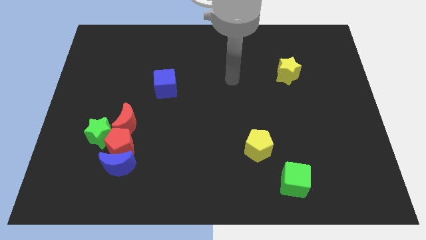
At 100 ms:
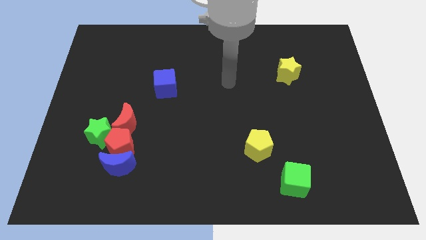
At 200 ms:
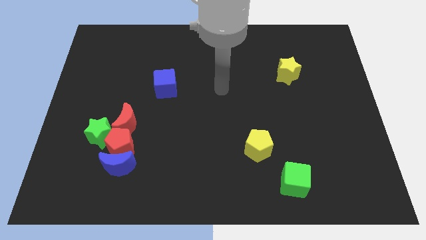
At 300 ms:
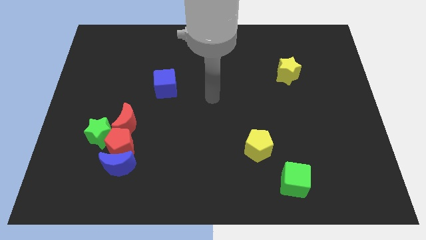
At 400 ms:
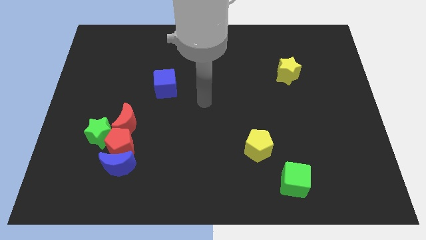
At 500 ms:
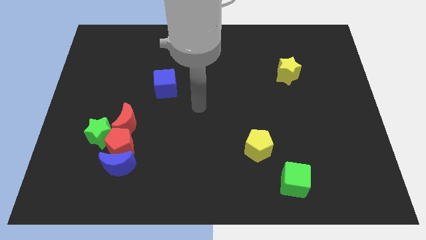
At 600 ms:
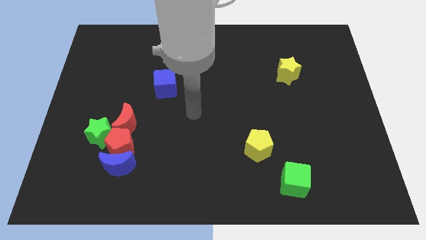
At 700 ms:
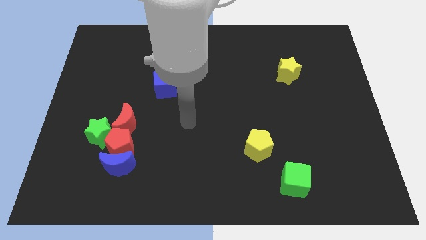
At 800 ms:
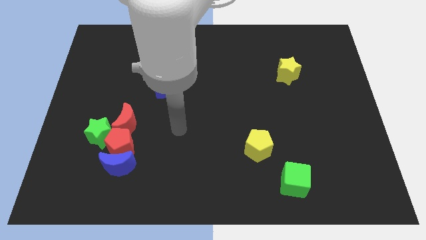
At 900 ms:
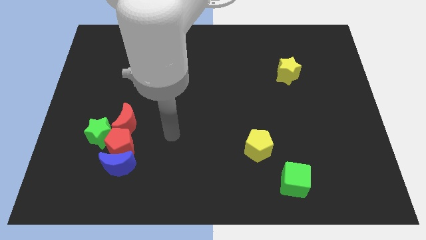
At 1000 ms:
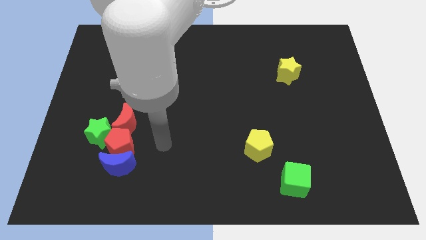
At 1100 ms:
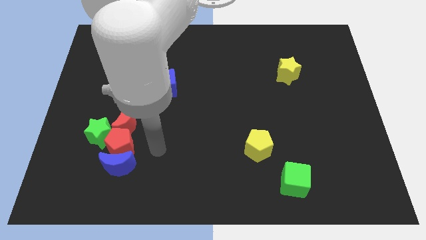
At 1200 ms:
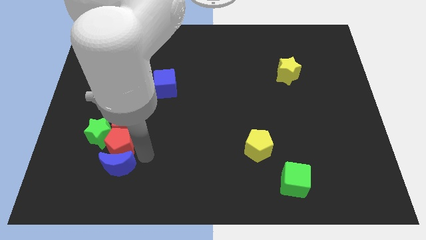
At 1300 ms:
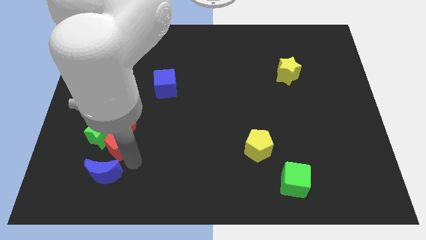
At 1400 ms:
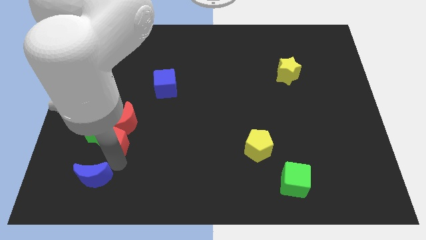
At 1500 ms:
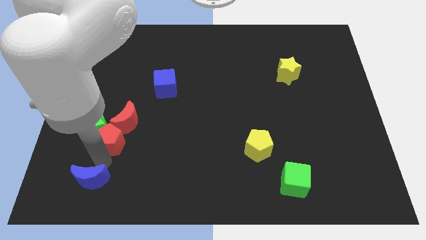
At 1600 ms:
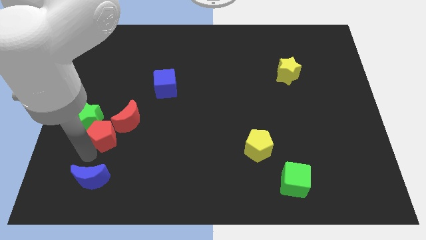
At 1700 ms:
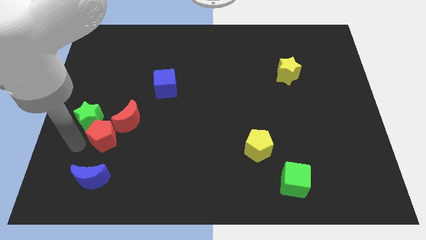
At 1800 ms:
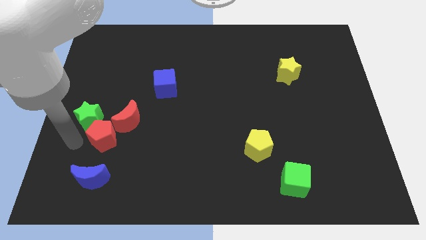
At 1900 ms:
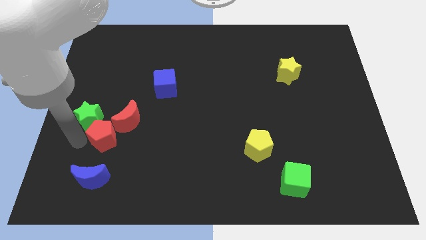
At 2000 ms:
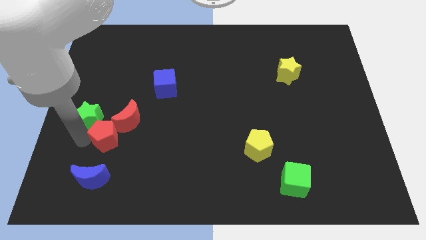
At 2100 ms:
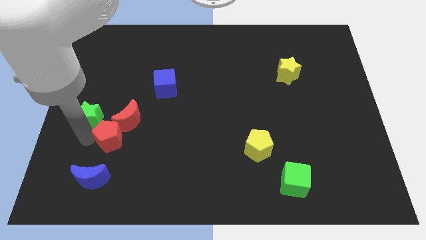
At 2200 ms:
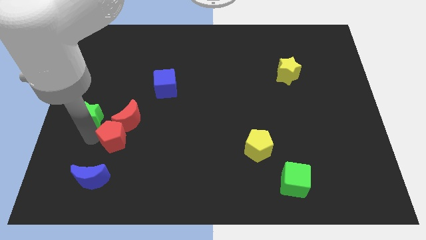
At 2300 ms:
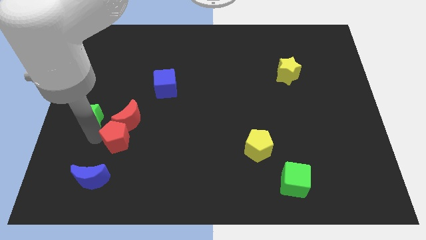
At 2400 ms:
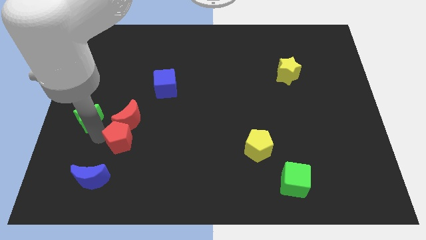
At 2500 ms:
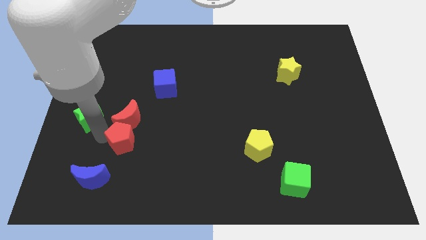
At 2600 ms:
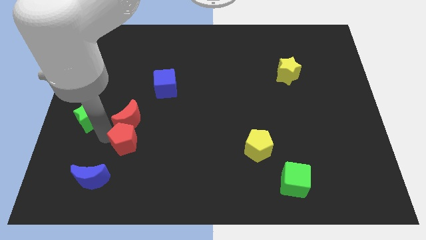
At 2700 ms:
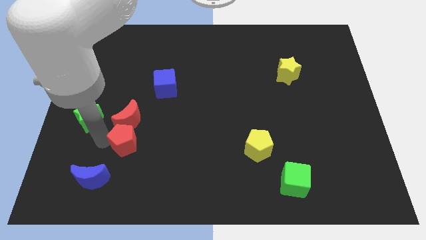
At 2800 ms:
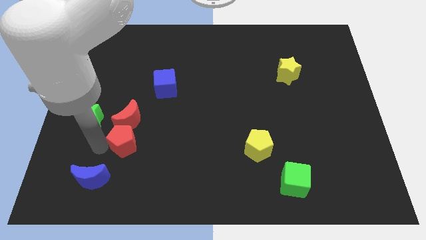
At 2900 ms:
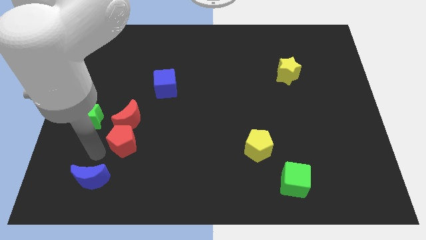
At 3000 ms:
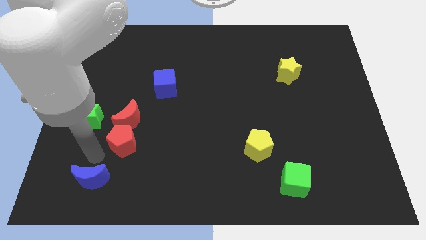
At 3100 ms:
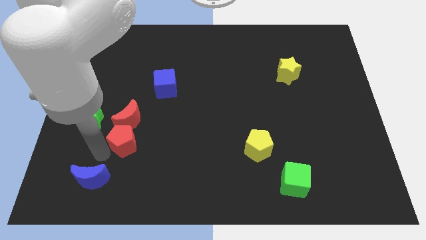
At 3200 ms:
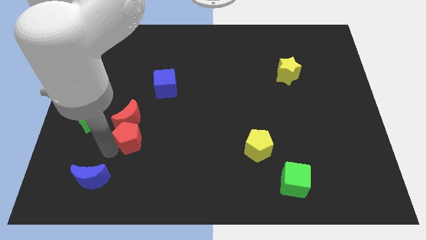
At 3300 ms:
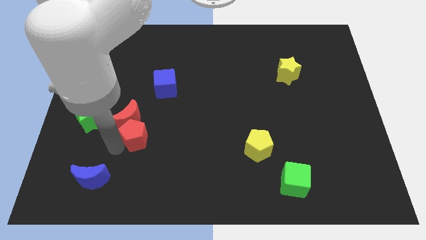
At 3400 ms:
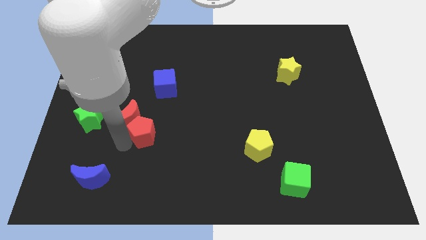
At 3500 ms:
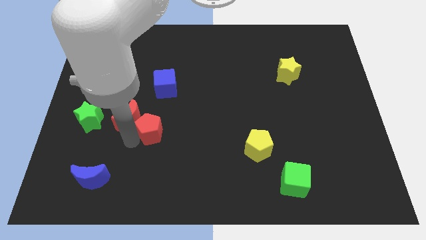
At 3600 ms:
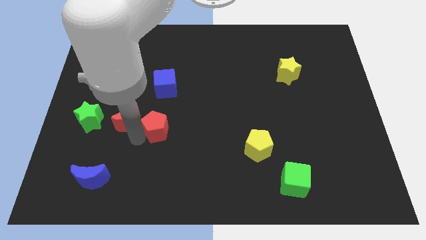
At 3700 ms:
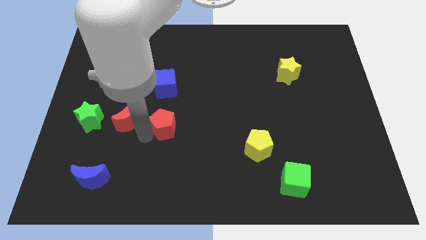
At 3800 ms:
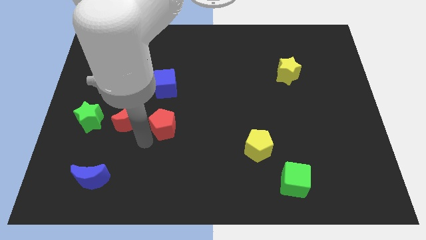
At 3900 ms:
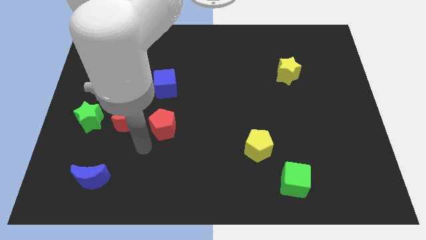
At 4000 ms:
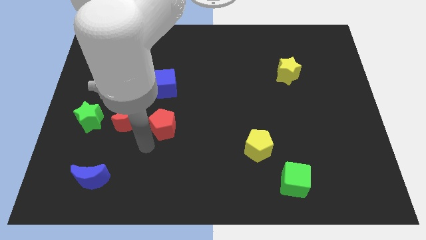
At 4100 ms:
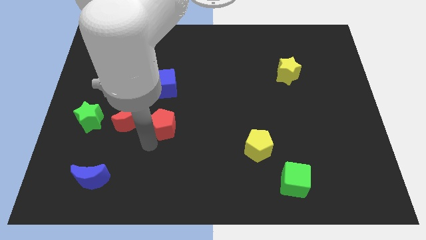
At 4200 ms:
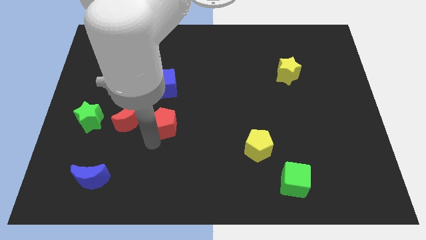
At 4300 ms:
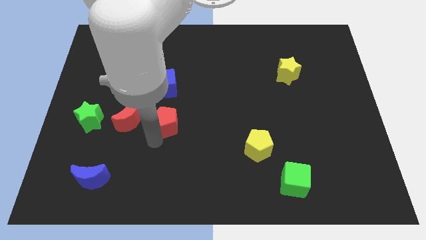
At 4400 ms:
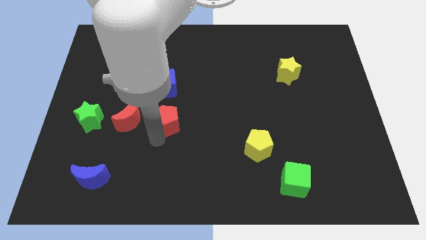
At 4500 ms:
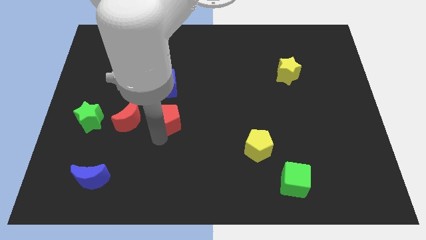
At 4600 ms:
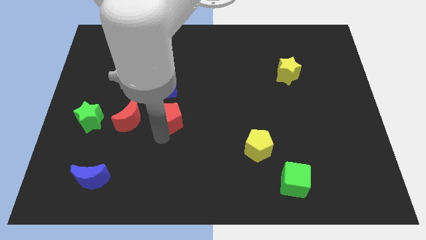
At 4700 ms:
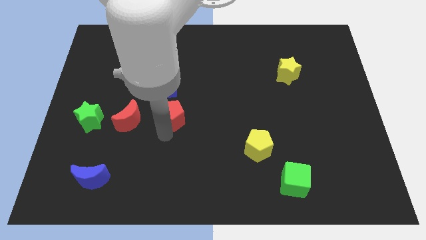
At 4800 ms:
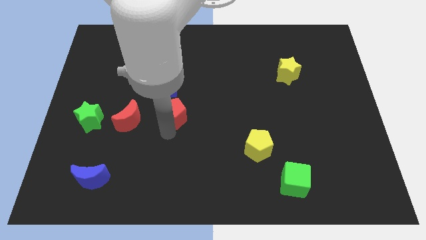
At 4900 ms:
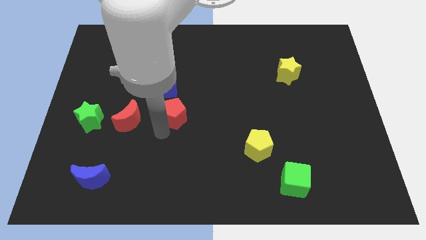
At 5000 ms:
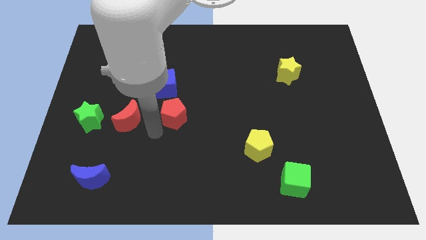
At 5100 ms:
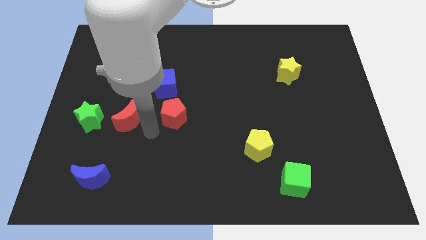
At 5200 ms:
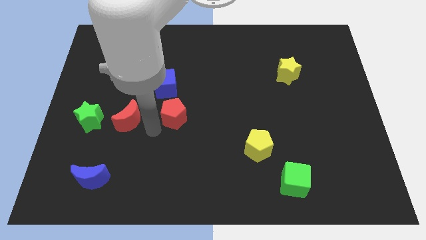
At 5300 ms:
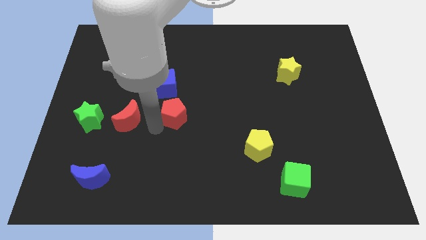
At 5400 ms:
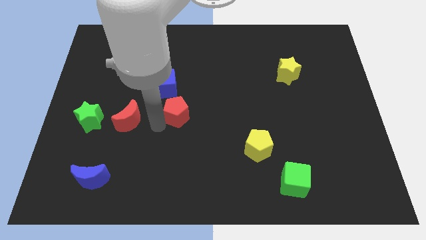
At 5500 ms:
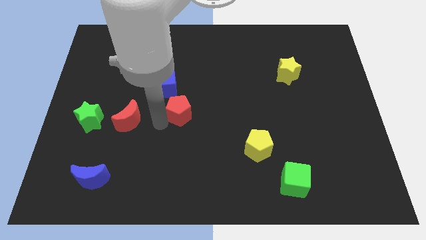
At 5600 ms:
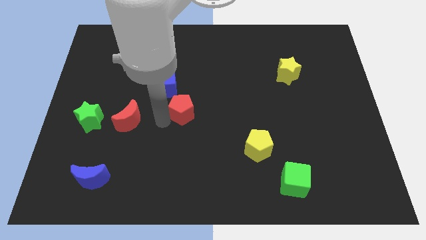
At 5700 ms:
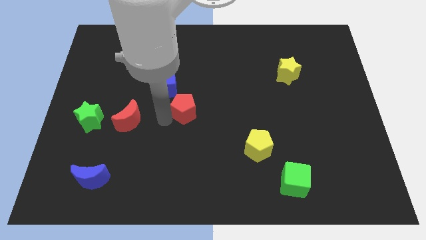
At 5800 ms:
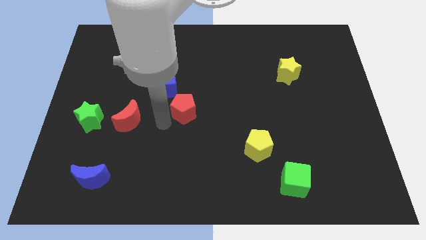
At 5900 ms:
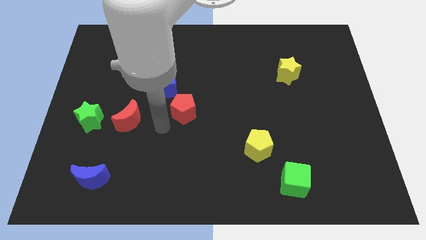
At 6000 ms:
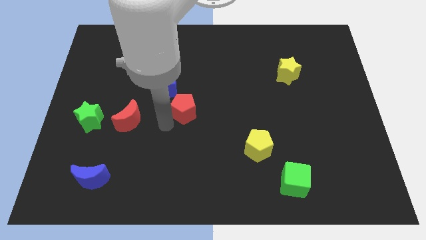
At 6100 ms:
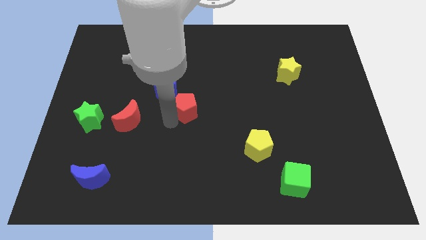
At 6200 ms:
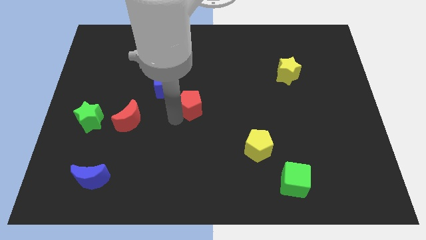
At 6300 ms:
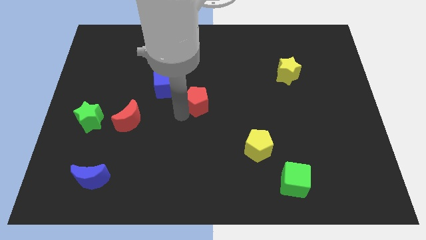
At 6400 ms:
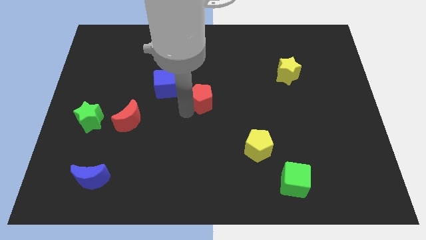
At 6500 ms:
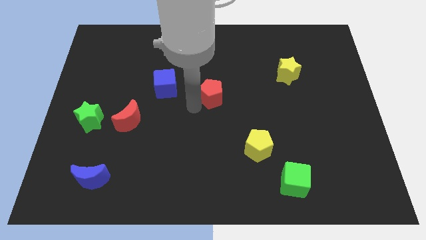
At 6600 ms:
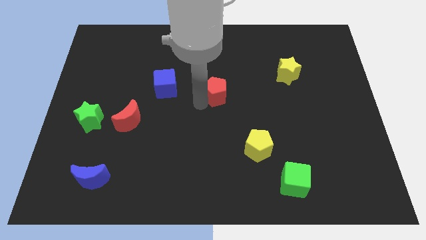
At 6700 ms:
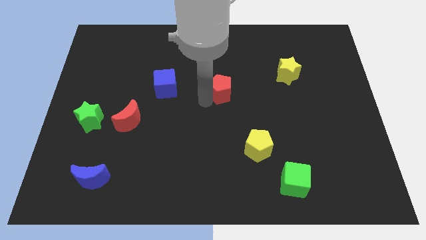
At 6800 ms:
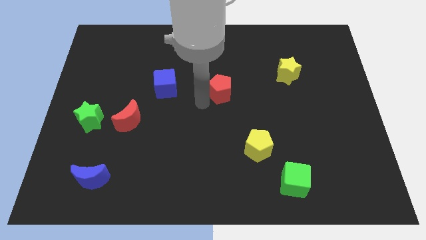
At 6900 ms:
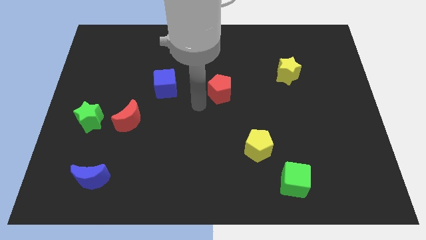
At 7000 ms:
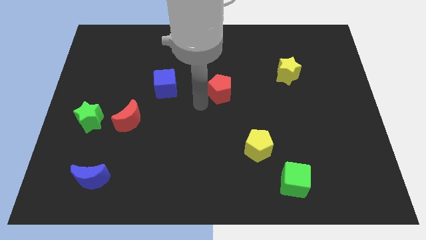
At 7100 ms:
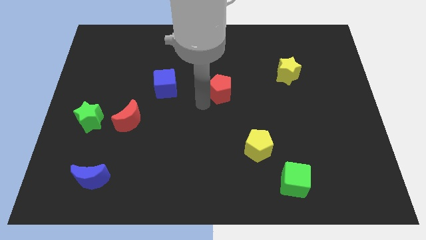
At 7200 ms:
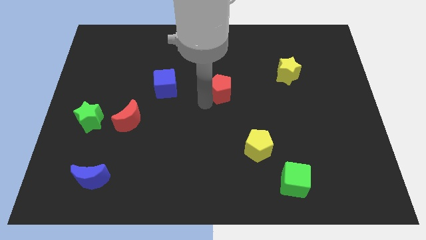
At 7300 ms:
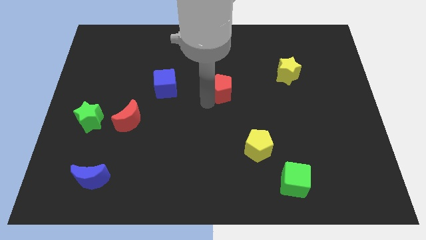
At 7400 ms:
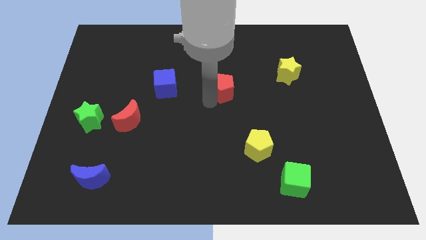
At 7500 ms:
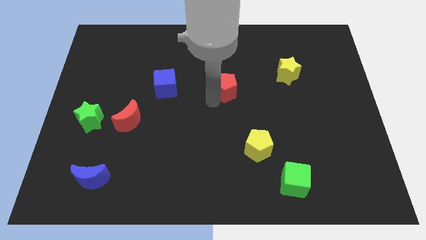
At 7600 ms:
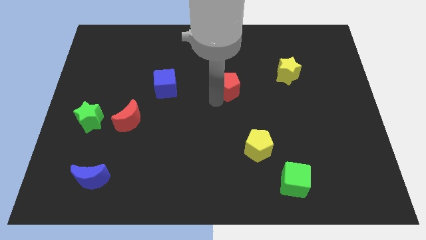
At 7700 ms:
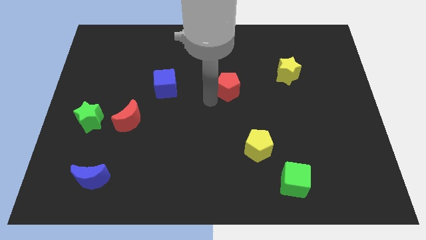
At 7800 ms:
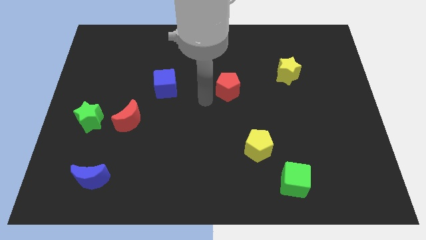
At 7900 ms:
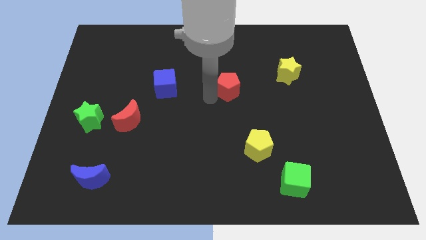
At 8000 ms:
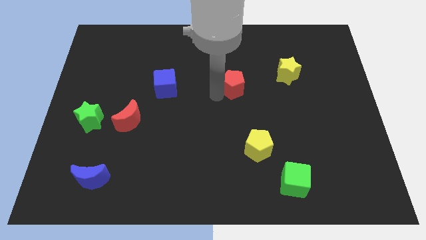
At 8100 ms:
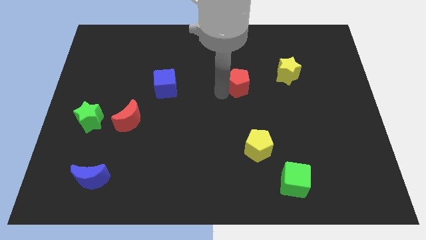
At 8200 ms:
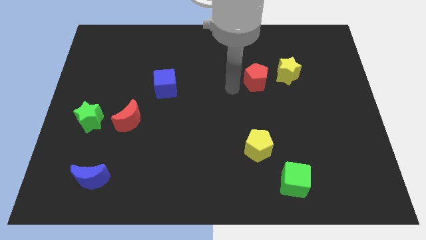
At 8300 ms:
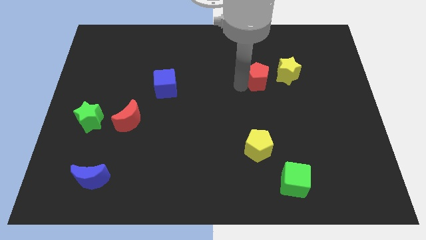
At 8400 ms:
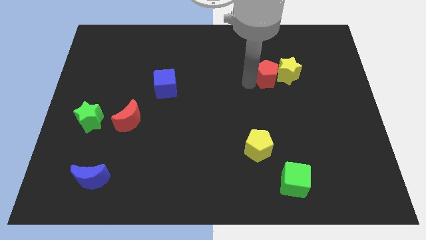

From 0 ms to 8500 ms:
slide the red pentagon to the yellow star
